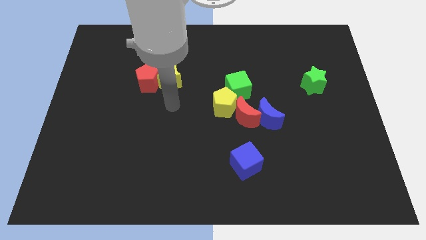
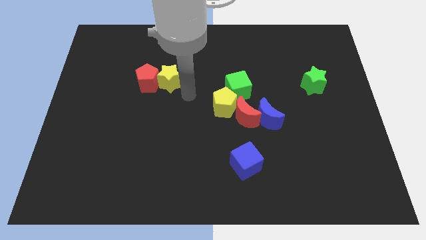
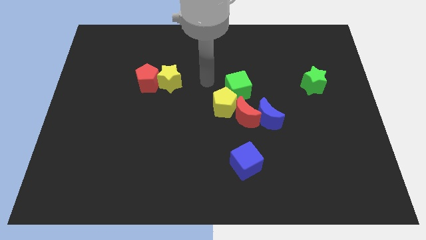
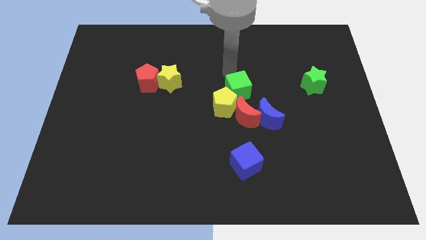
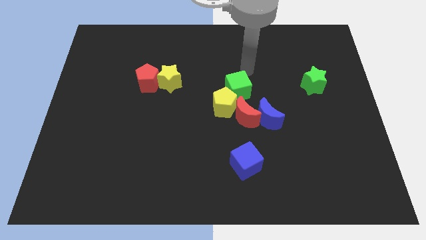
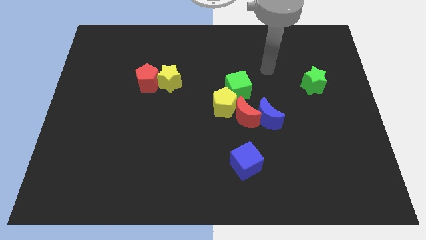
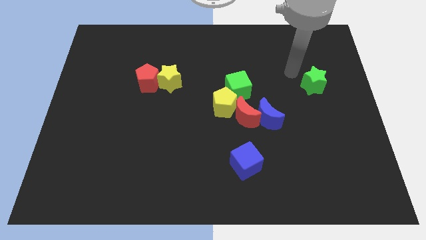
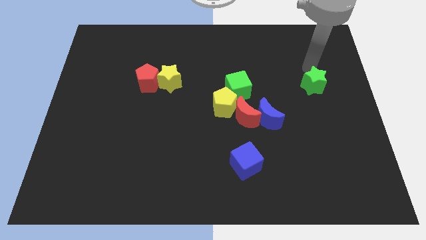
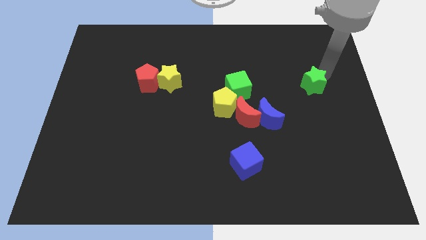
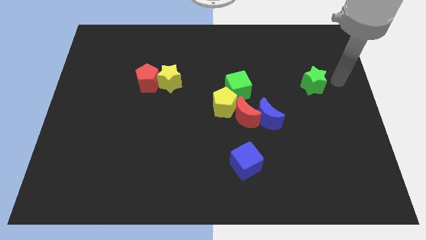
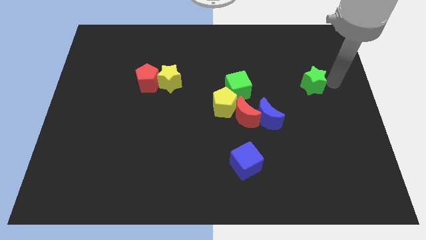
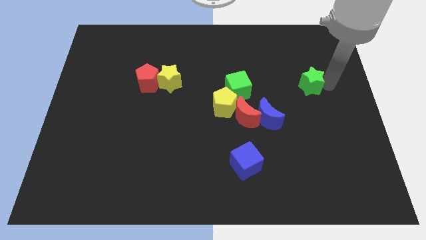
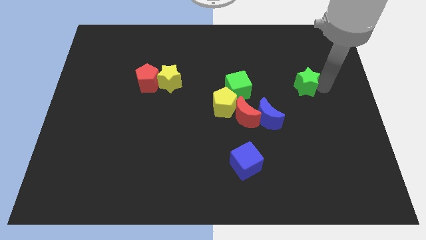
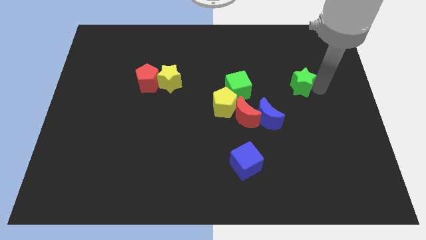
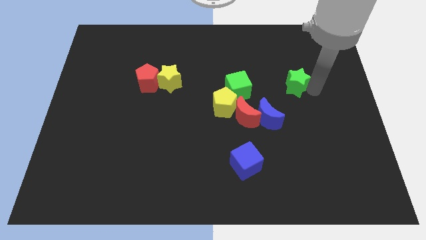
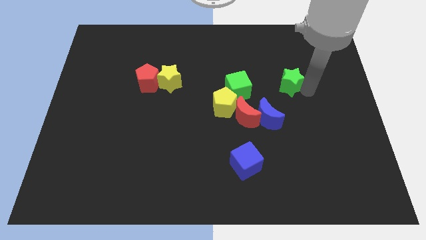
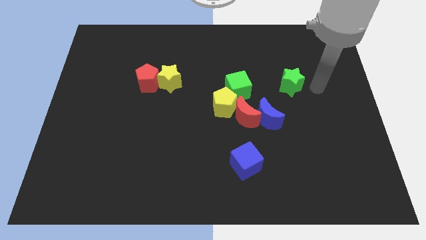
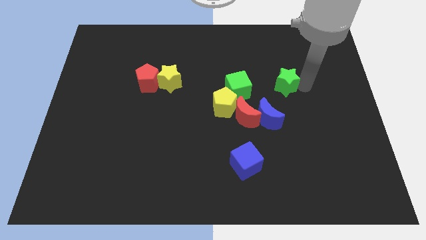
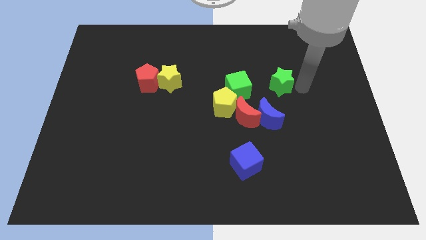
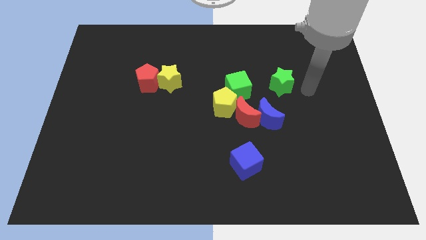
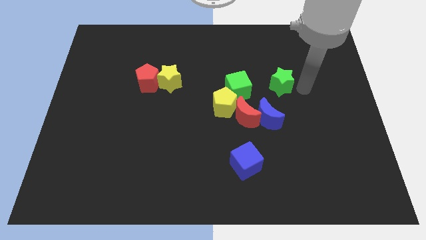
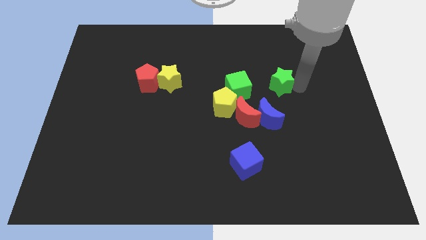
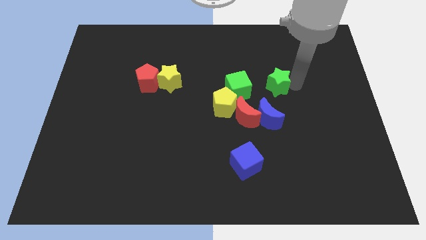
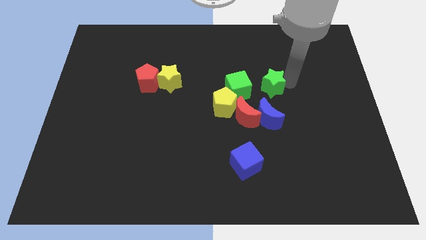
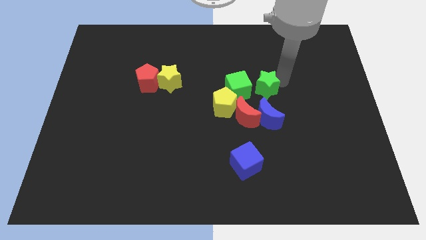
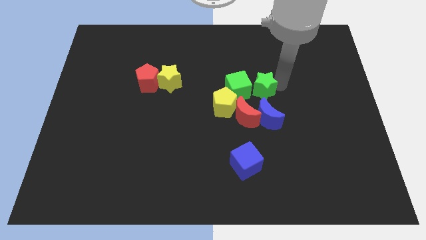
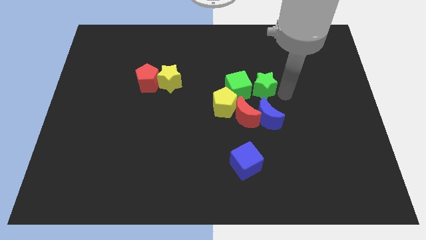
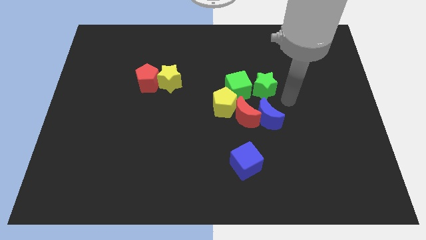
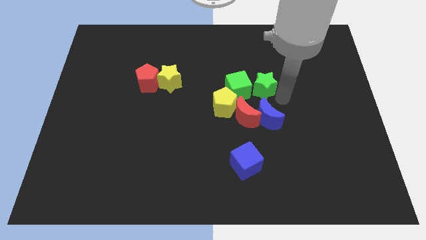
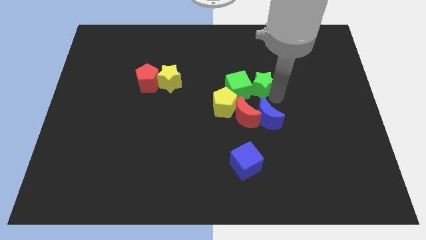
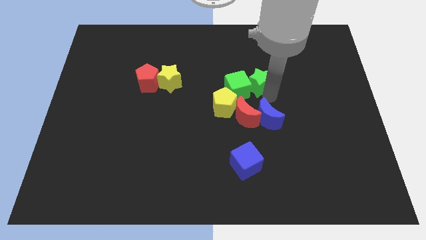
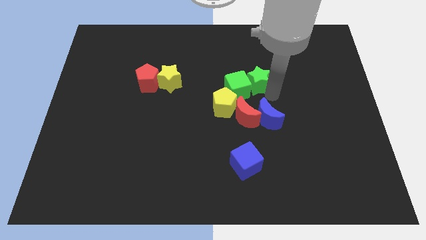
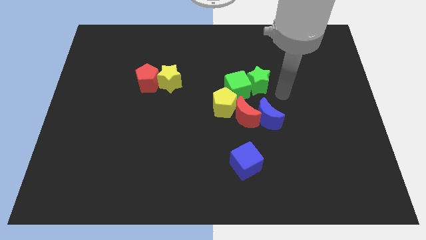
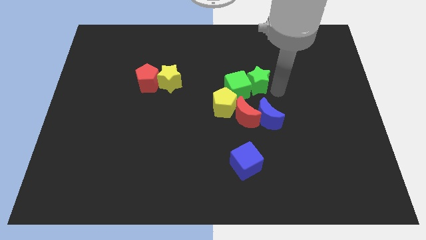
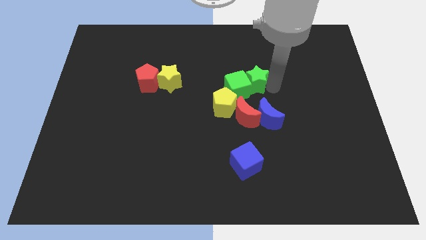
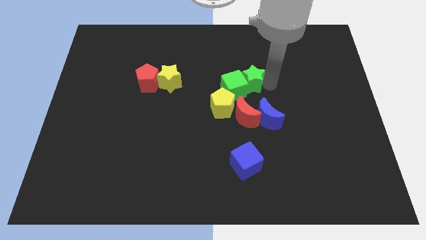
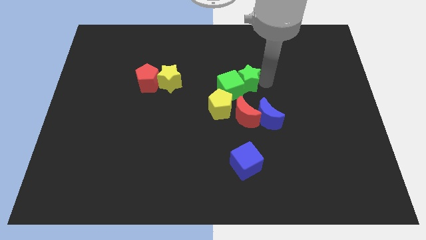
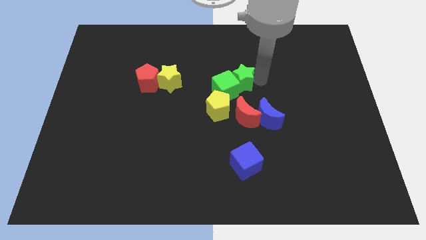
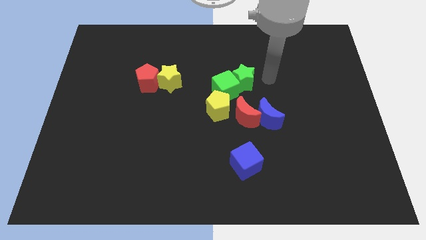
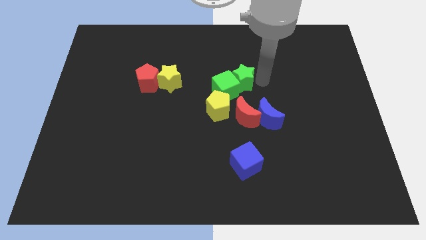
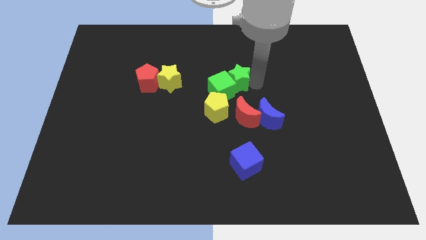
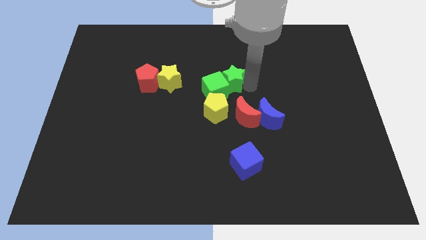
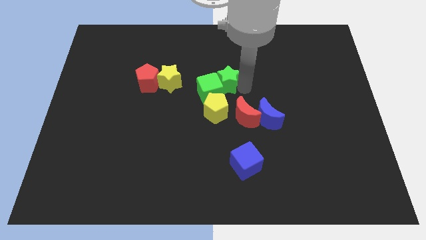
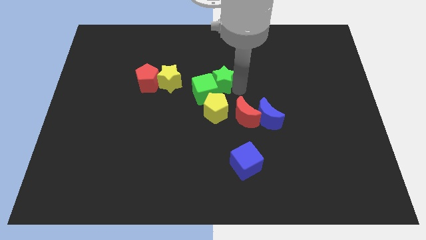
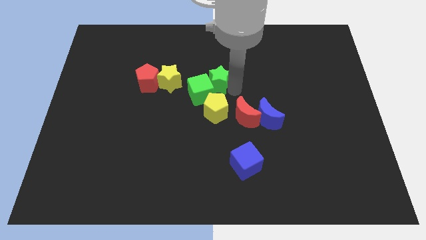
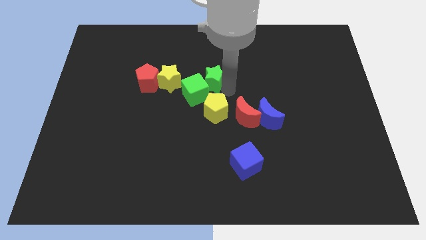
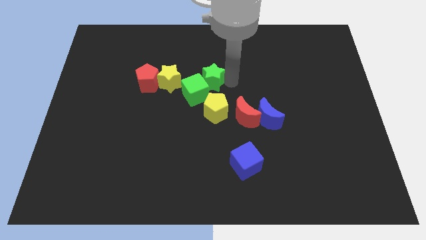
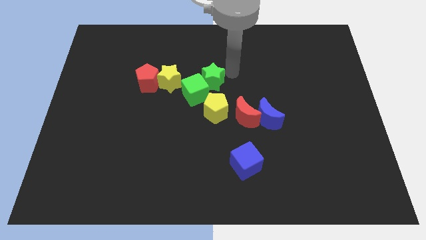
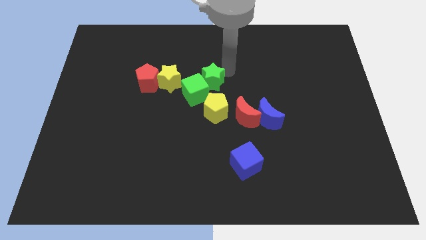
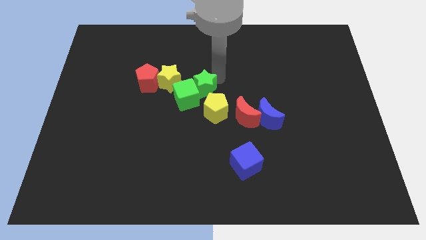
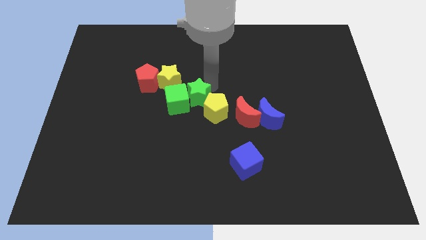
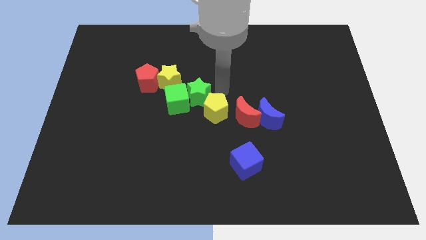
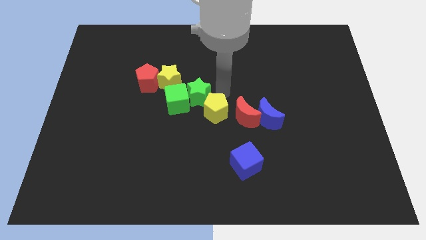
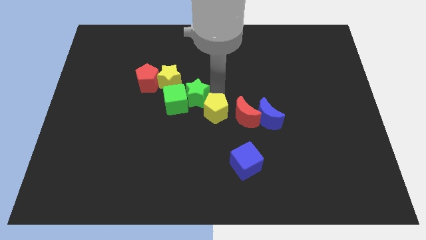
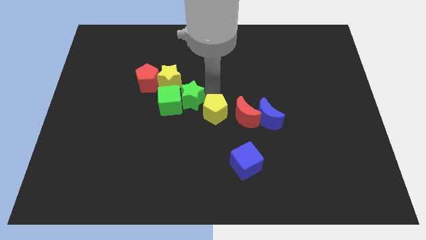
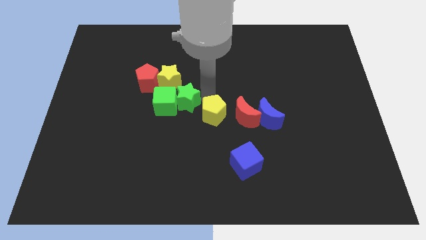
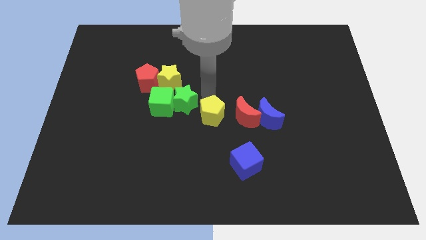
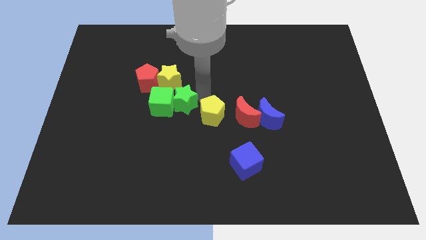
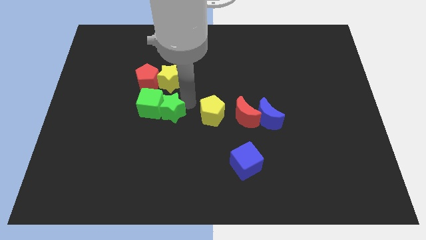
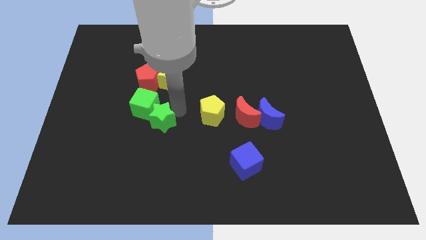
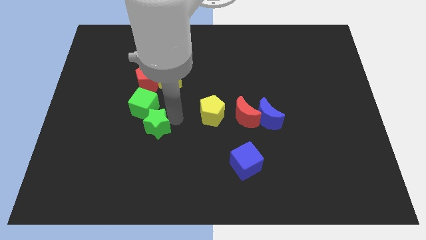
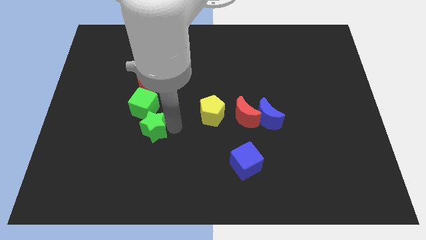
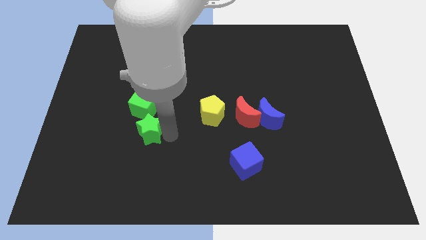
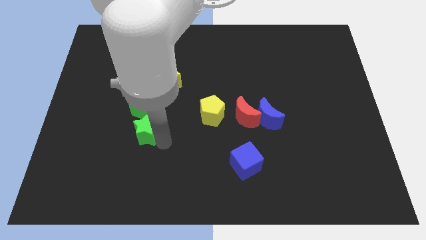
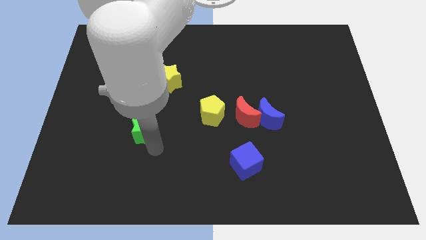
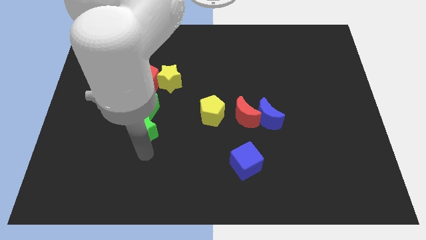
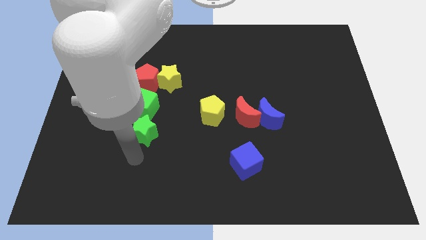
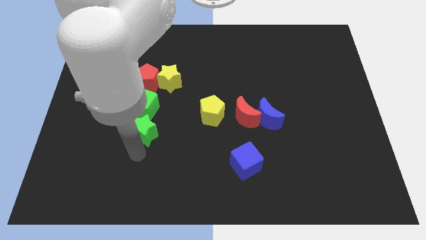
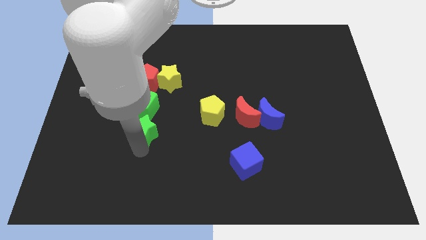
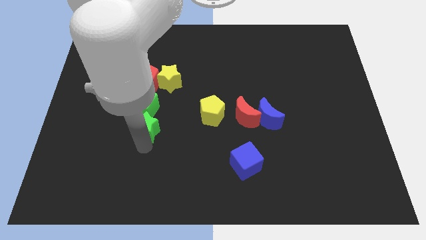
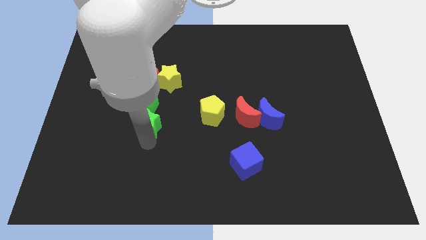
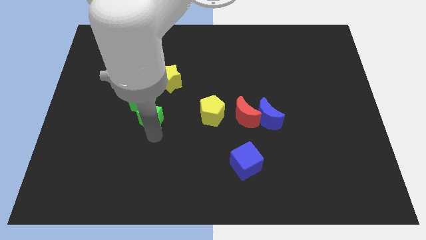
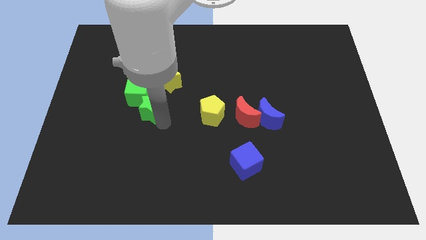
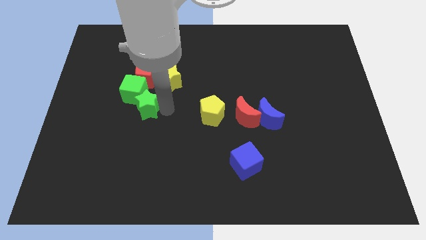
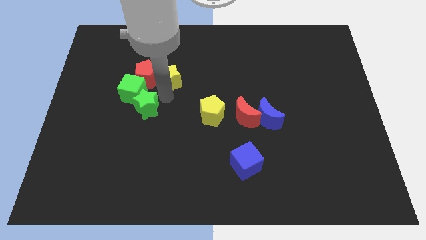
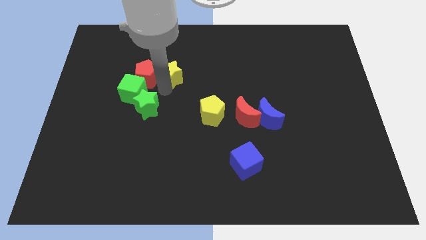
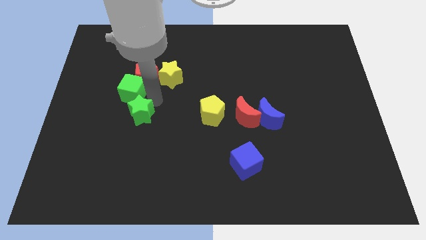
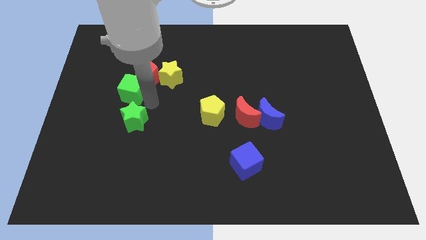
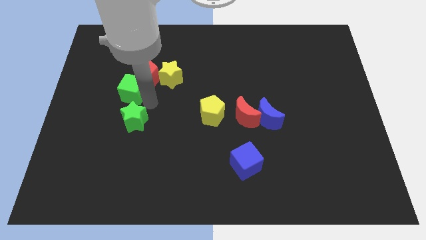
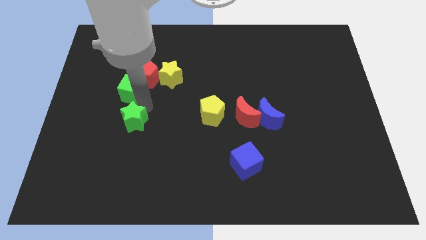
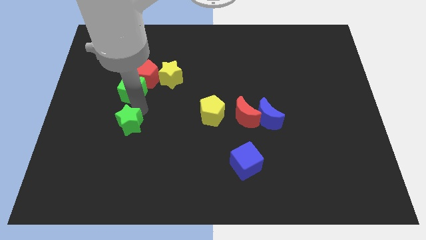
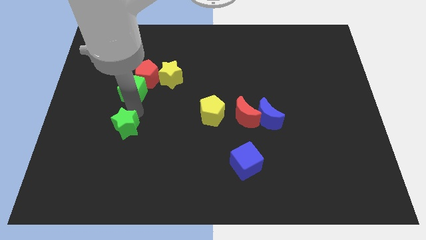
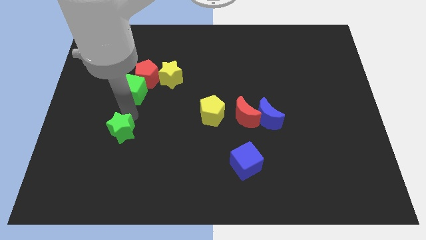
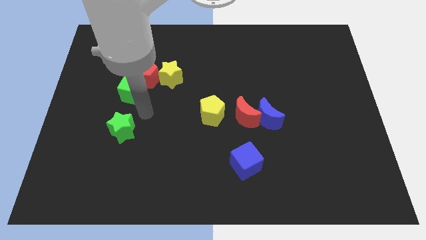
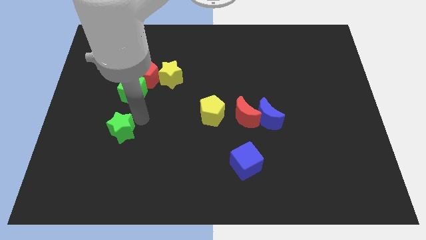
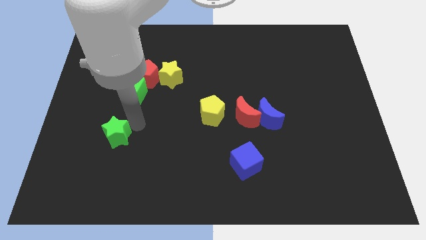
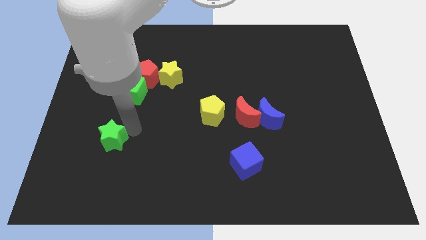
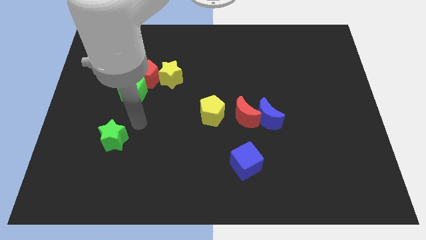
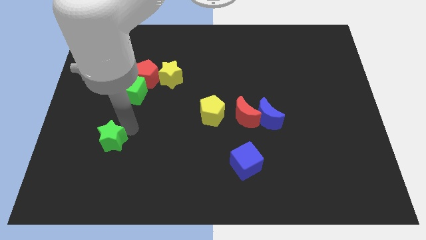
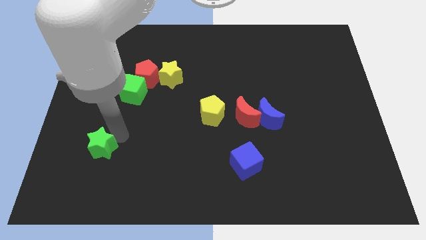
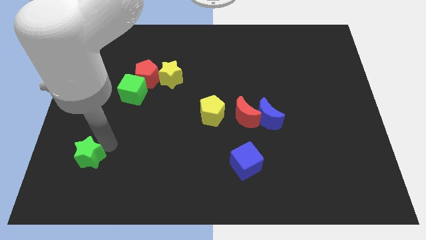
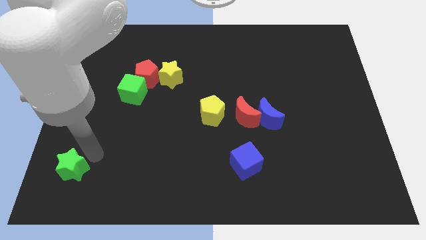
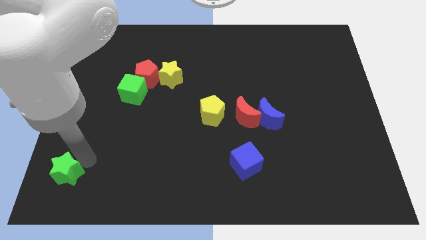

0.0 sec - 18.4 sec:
put the green star to the lower left corner
